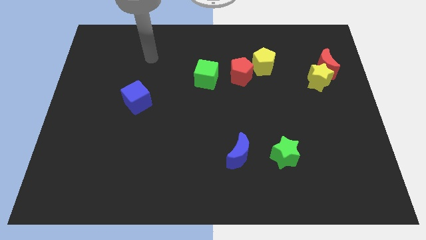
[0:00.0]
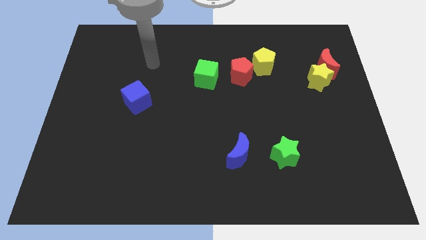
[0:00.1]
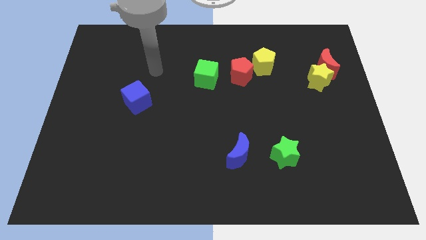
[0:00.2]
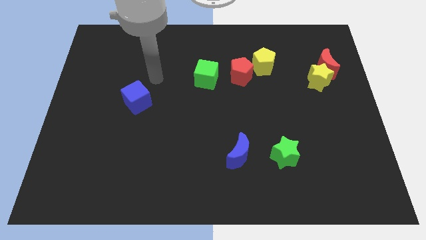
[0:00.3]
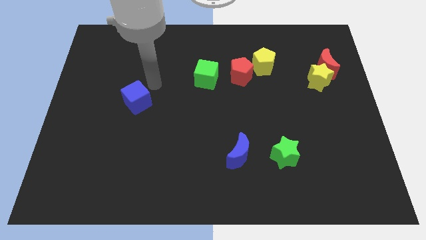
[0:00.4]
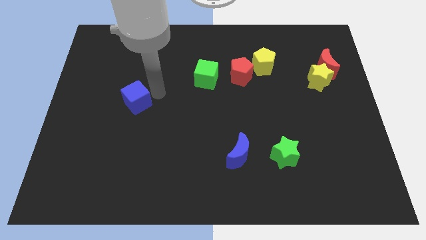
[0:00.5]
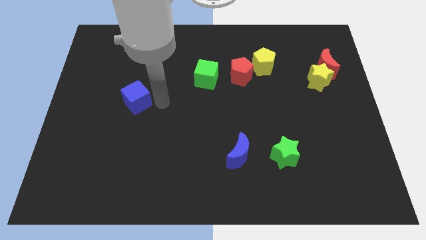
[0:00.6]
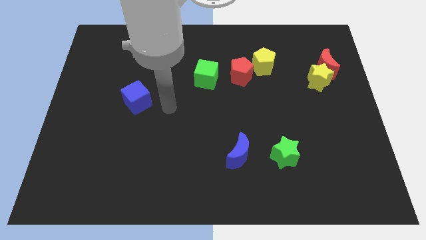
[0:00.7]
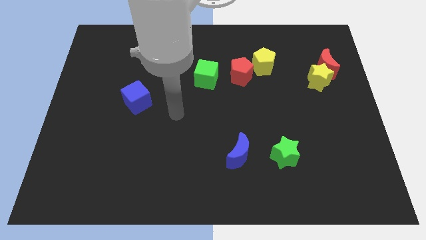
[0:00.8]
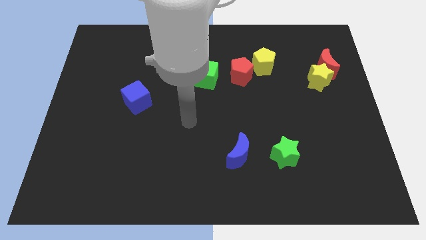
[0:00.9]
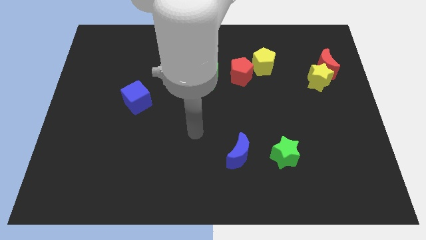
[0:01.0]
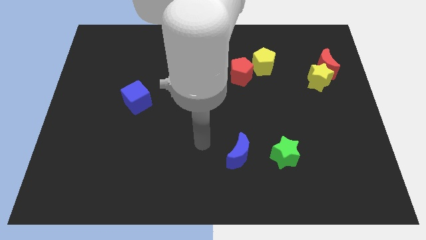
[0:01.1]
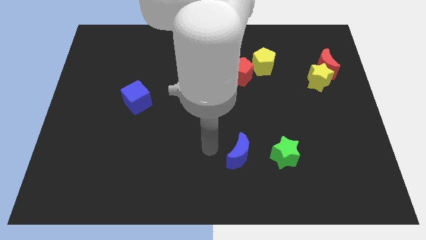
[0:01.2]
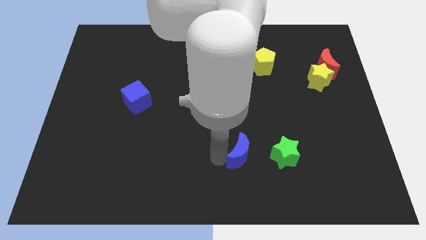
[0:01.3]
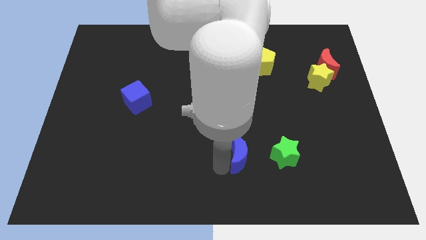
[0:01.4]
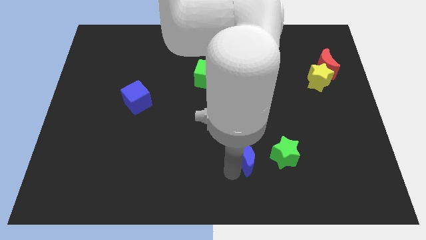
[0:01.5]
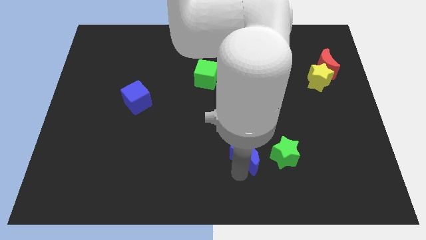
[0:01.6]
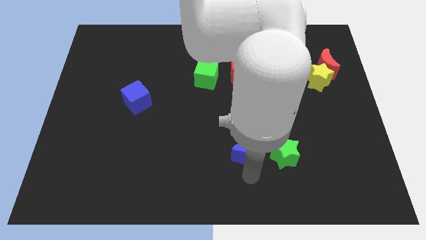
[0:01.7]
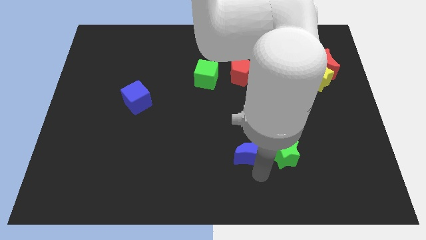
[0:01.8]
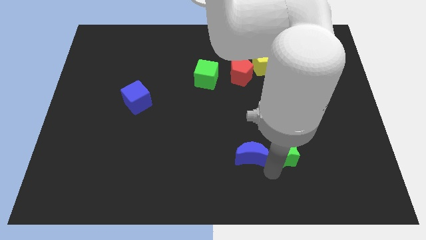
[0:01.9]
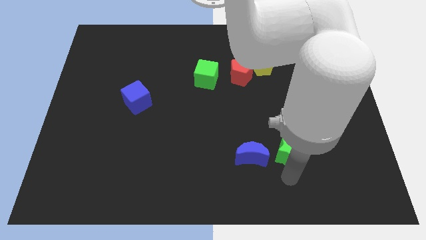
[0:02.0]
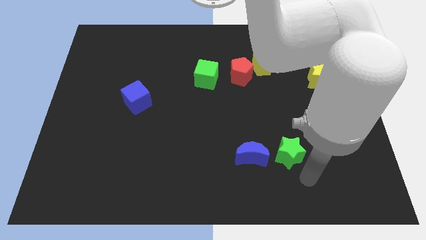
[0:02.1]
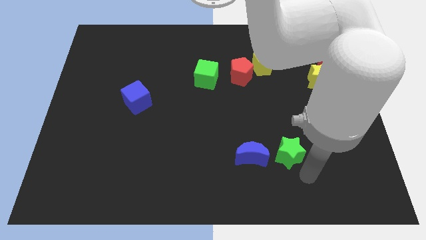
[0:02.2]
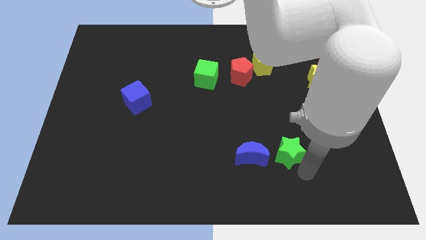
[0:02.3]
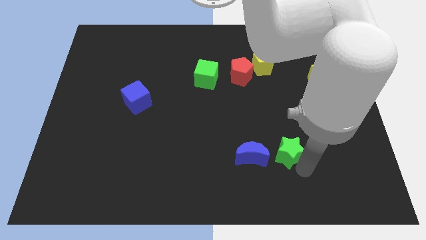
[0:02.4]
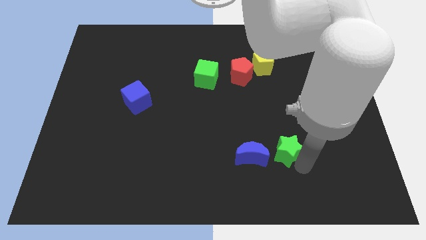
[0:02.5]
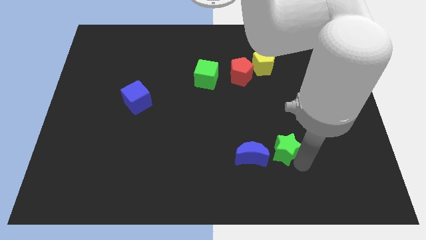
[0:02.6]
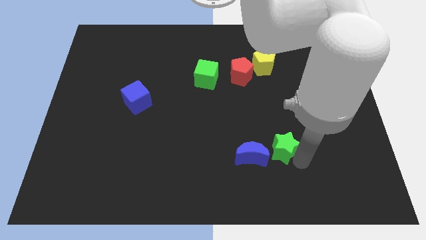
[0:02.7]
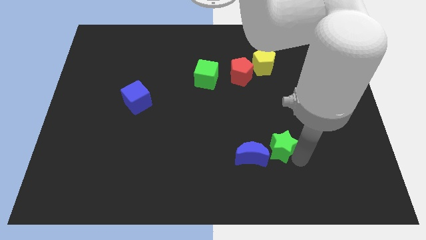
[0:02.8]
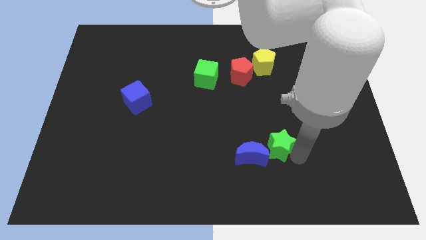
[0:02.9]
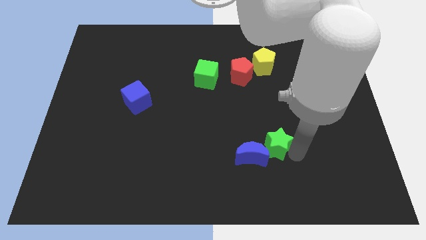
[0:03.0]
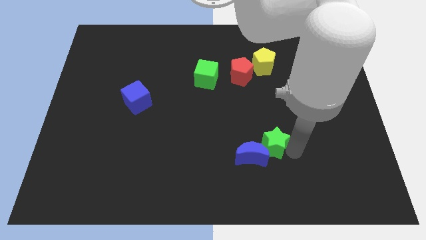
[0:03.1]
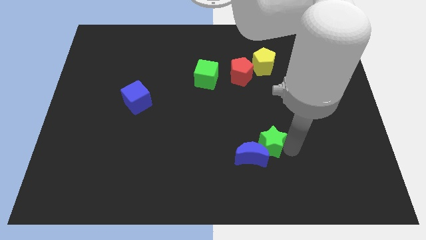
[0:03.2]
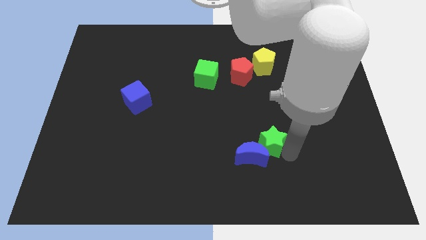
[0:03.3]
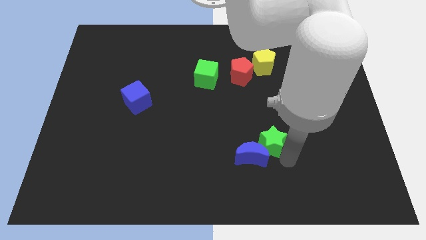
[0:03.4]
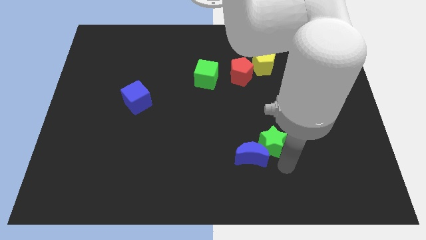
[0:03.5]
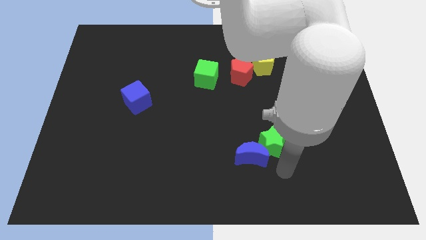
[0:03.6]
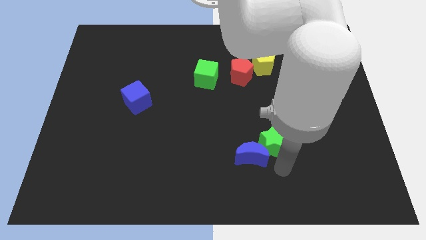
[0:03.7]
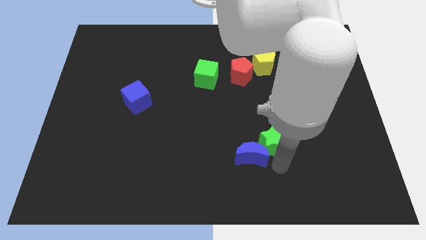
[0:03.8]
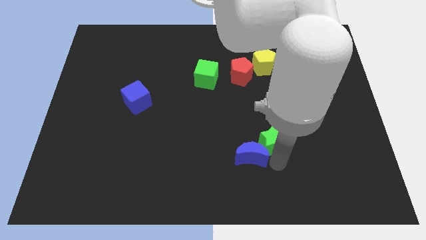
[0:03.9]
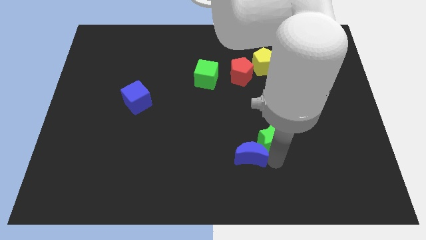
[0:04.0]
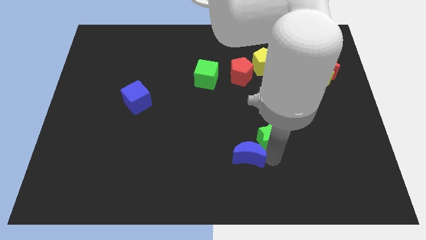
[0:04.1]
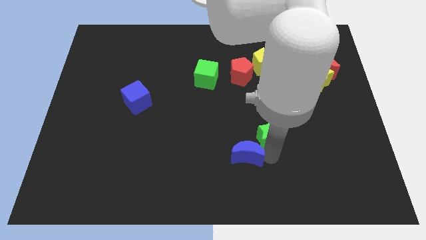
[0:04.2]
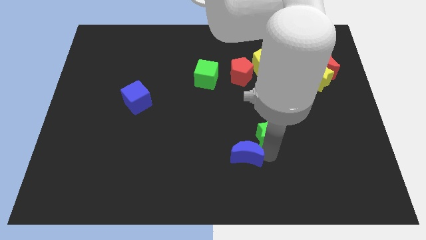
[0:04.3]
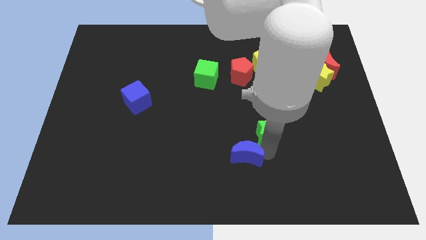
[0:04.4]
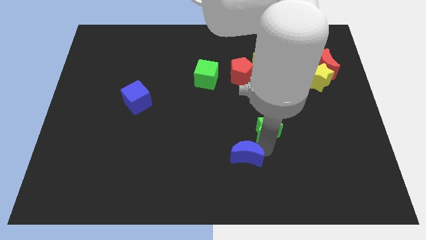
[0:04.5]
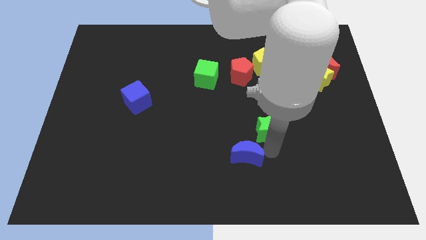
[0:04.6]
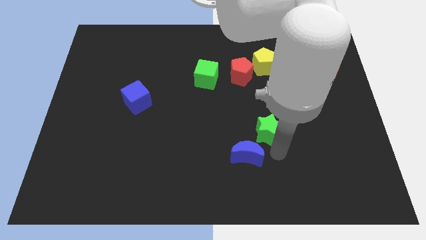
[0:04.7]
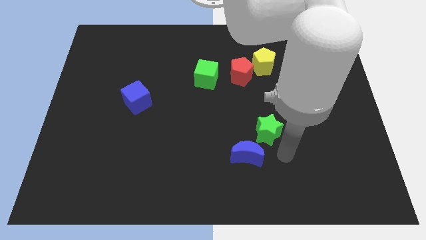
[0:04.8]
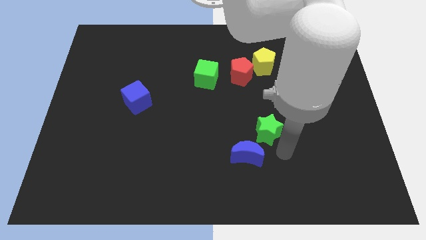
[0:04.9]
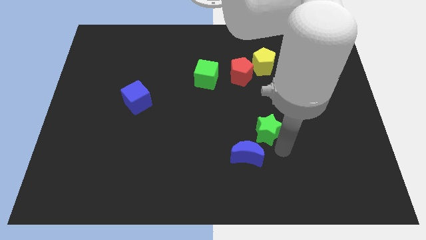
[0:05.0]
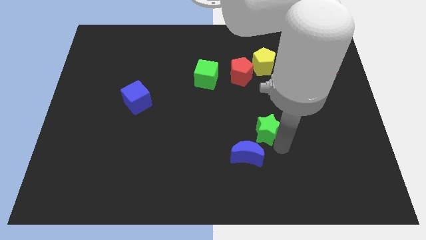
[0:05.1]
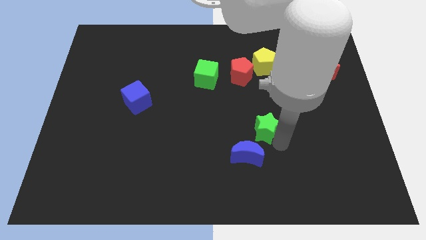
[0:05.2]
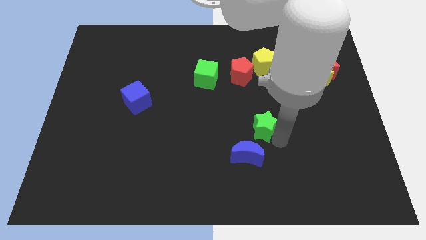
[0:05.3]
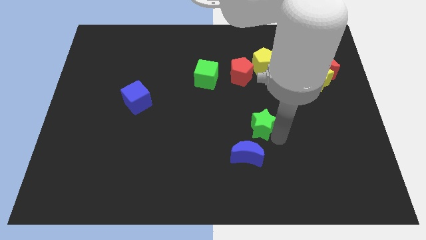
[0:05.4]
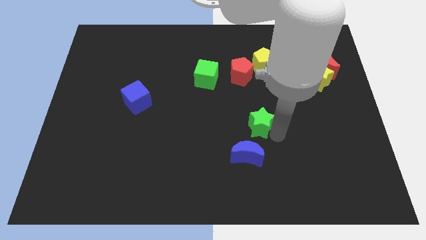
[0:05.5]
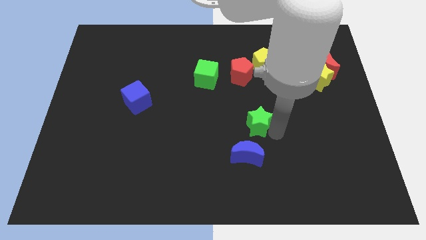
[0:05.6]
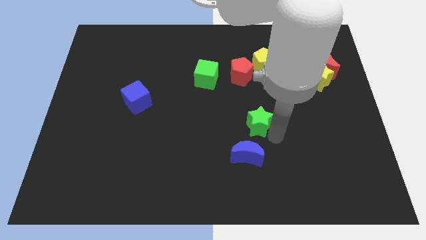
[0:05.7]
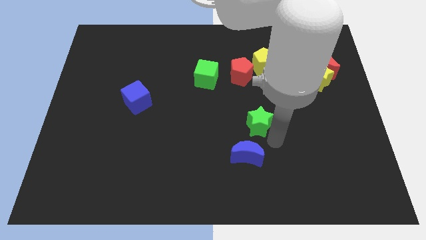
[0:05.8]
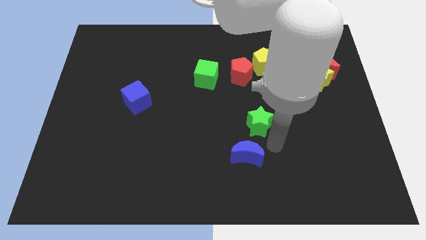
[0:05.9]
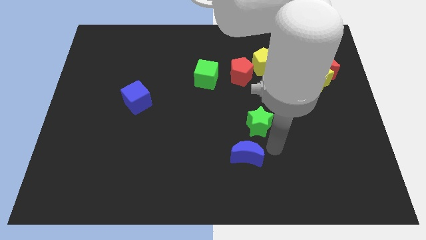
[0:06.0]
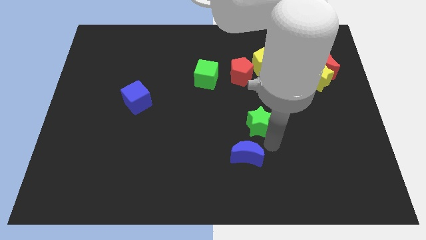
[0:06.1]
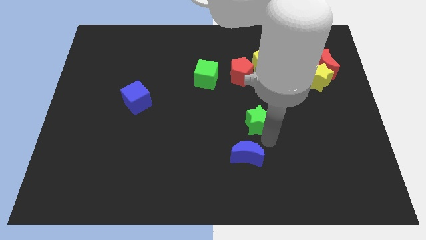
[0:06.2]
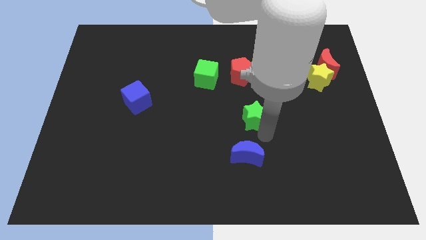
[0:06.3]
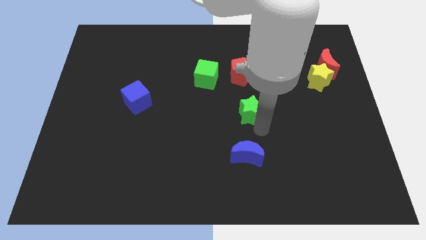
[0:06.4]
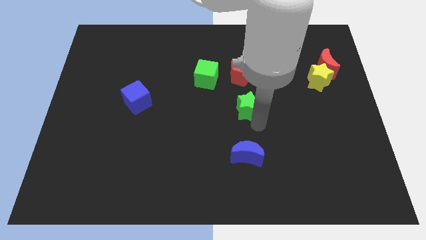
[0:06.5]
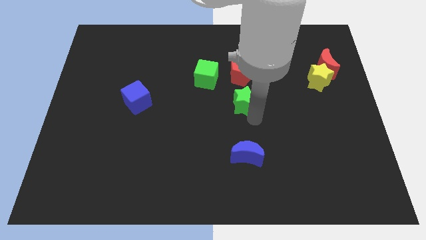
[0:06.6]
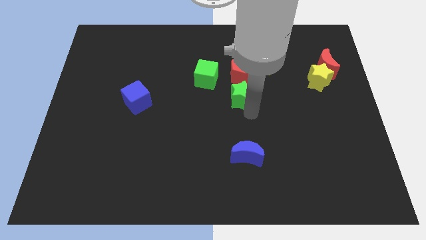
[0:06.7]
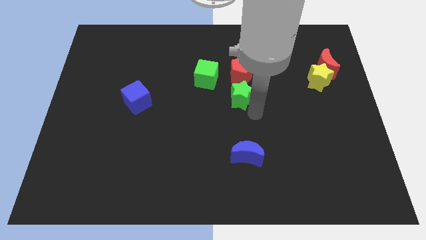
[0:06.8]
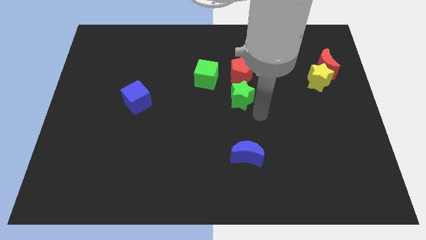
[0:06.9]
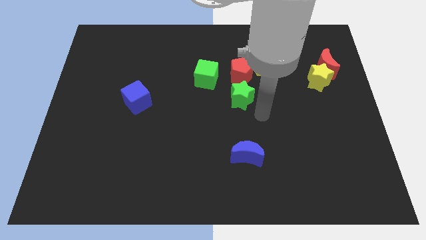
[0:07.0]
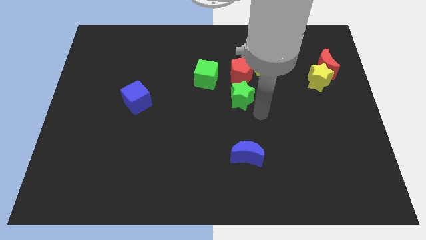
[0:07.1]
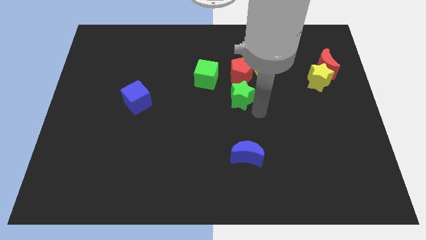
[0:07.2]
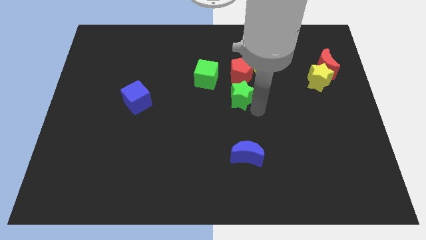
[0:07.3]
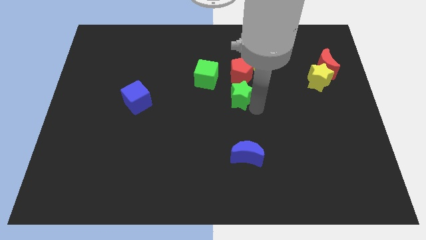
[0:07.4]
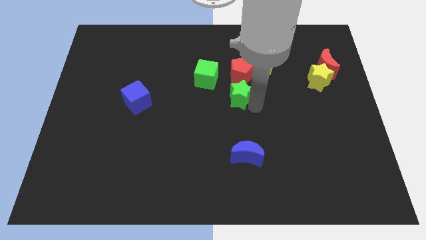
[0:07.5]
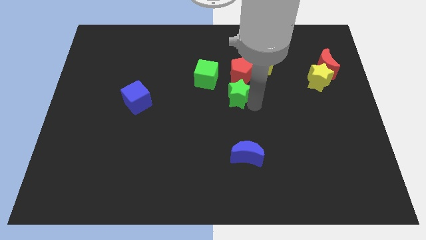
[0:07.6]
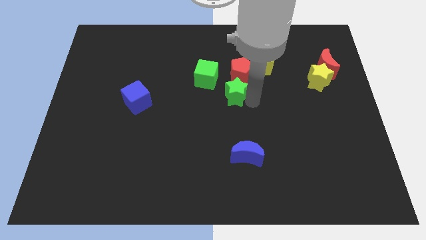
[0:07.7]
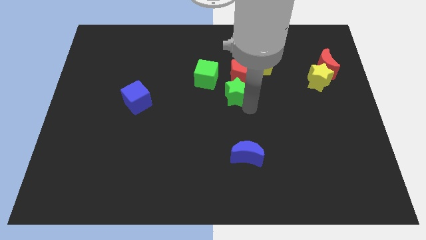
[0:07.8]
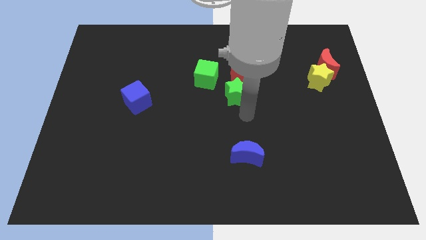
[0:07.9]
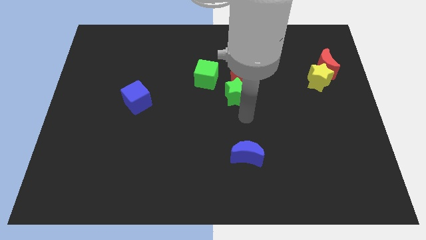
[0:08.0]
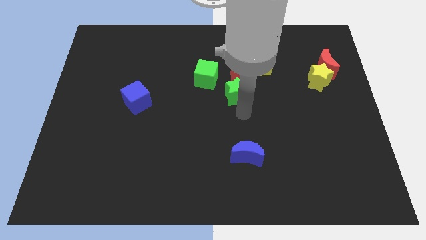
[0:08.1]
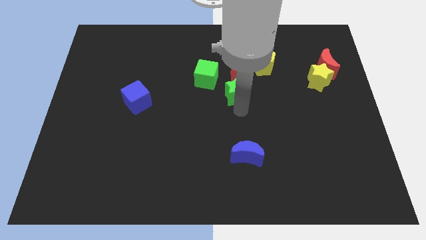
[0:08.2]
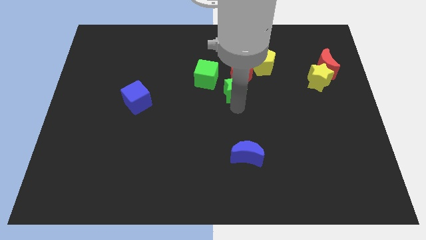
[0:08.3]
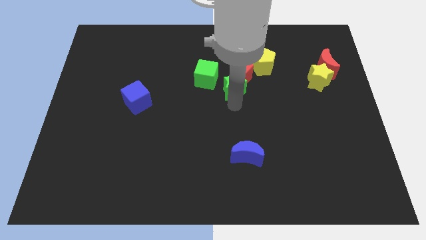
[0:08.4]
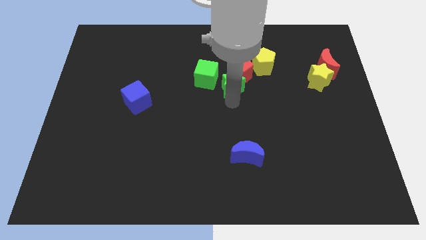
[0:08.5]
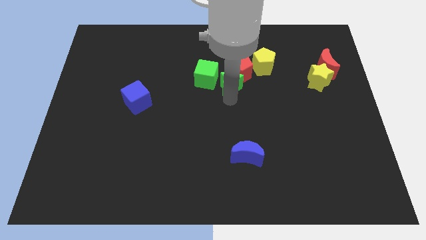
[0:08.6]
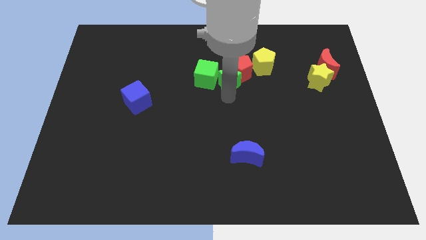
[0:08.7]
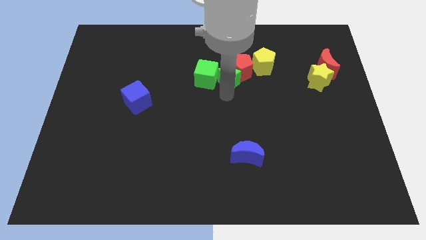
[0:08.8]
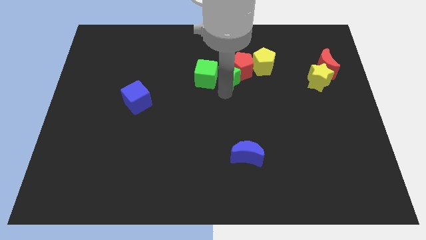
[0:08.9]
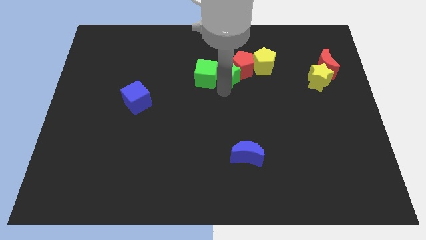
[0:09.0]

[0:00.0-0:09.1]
put the green star to the left of the yellow pentagon
